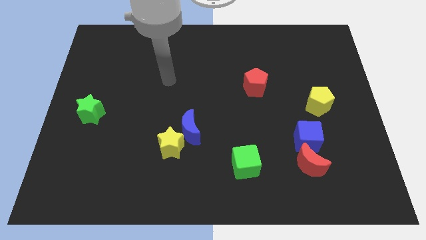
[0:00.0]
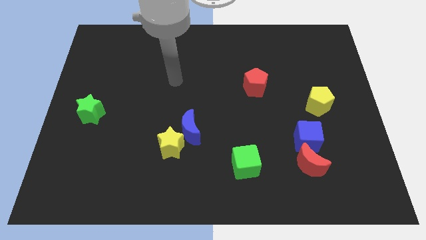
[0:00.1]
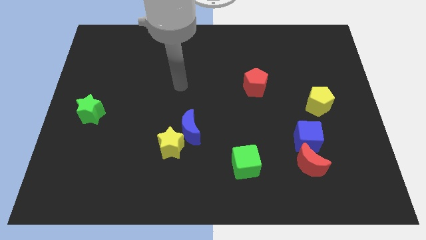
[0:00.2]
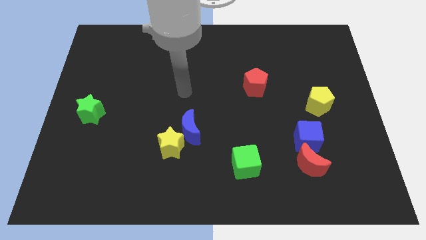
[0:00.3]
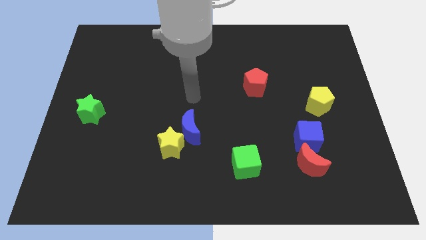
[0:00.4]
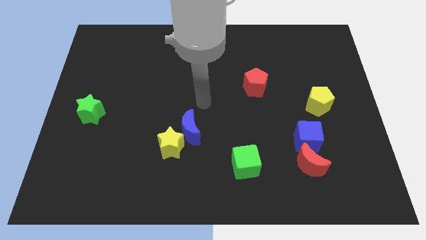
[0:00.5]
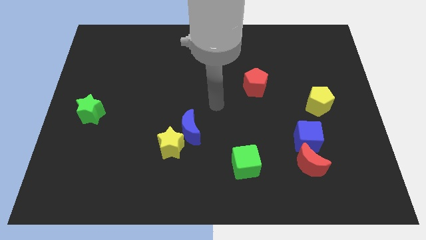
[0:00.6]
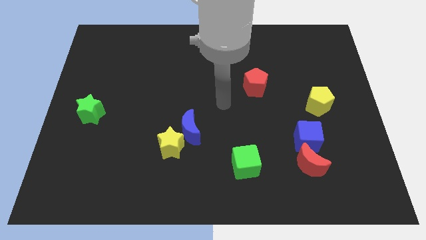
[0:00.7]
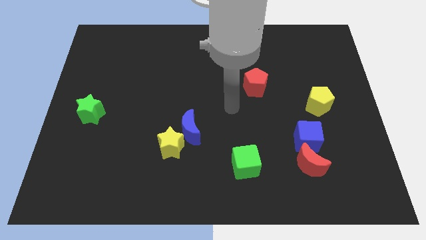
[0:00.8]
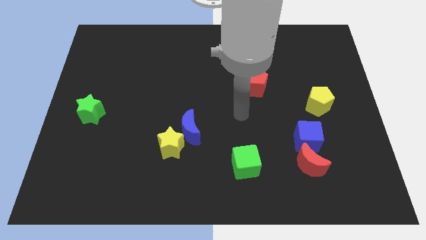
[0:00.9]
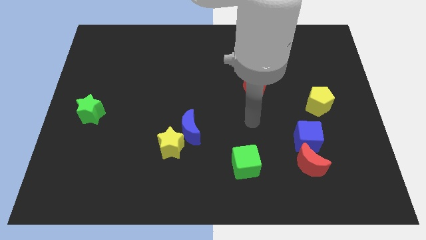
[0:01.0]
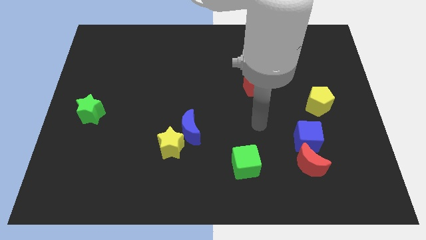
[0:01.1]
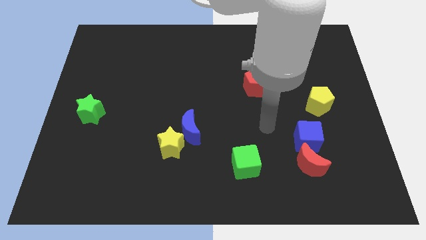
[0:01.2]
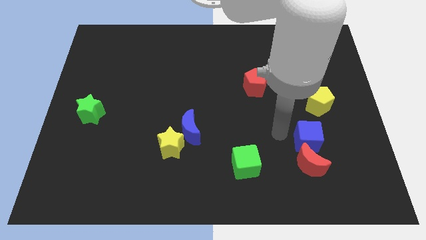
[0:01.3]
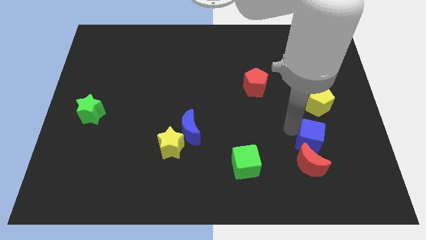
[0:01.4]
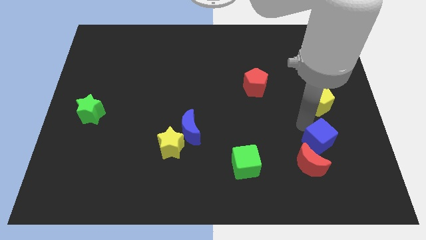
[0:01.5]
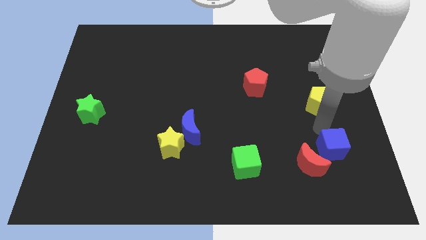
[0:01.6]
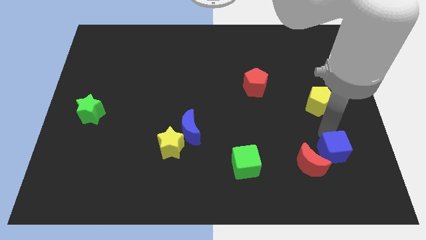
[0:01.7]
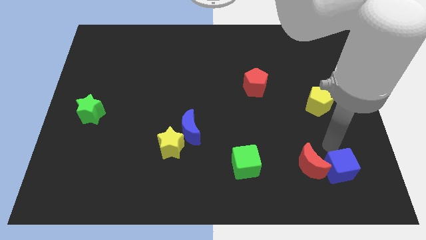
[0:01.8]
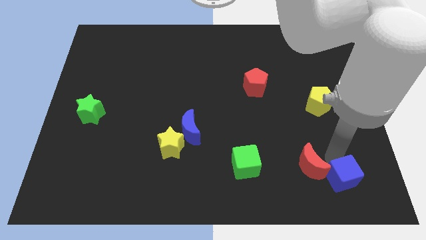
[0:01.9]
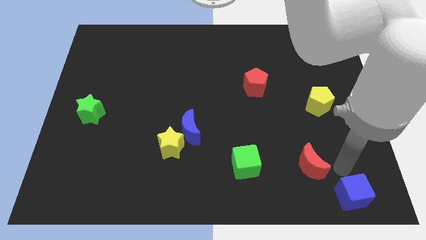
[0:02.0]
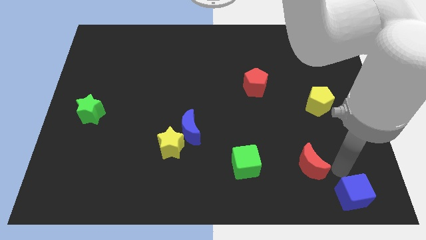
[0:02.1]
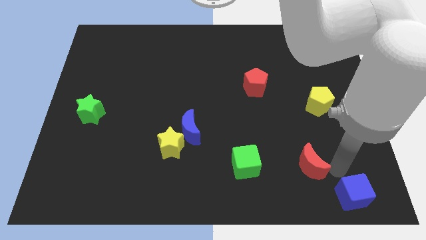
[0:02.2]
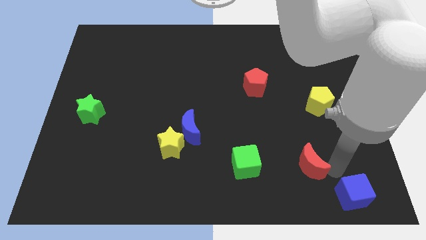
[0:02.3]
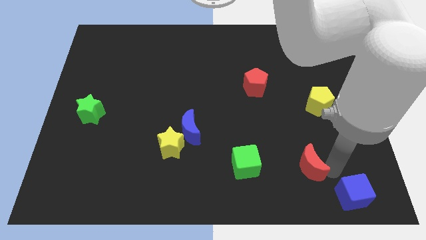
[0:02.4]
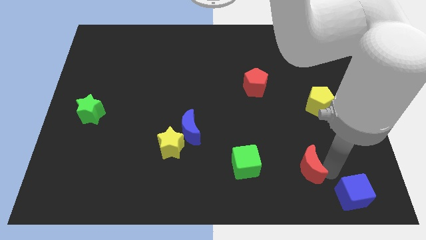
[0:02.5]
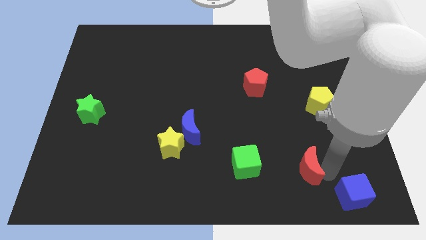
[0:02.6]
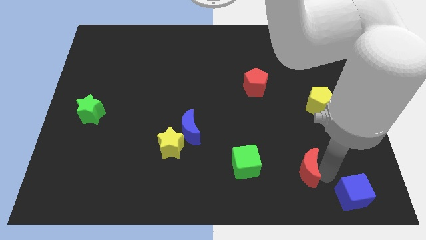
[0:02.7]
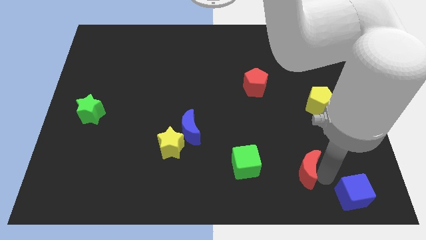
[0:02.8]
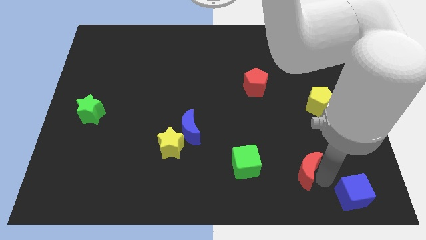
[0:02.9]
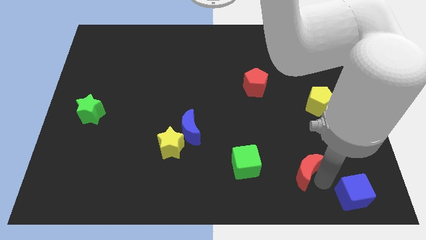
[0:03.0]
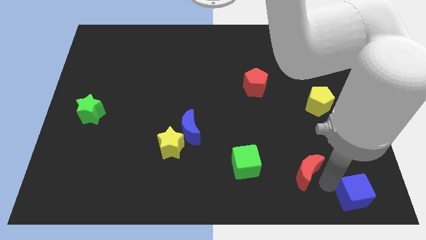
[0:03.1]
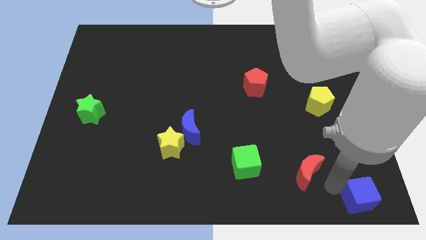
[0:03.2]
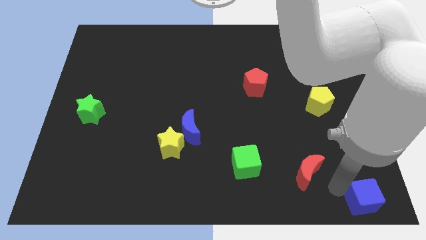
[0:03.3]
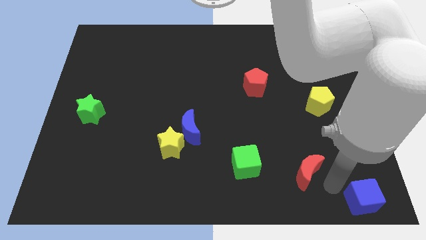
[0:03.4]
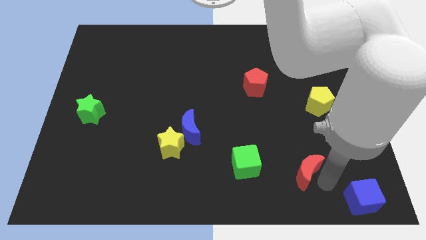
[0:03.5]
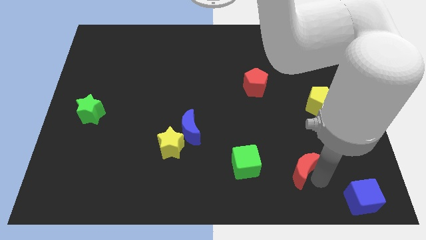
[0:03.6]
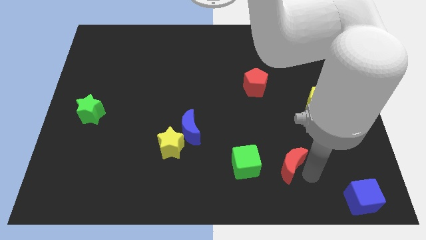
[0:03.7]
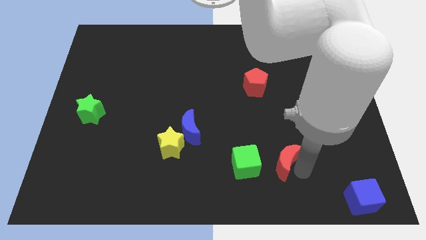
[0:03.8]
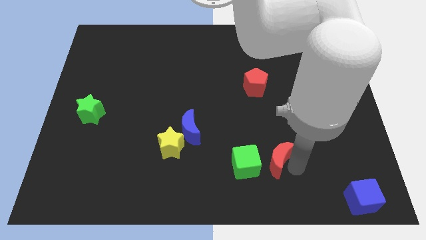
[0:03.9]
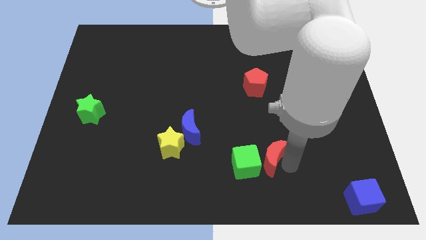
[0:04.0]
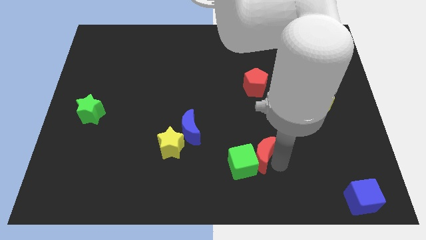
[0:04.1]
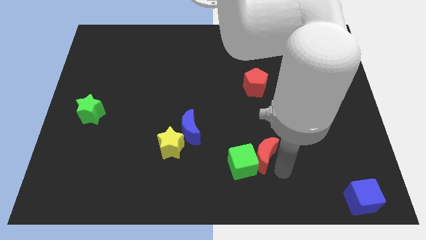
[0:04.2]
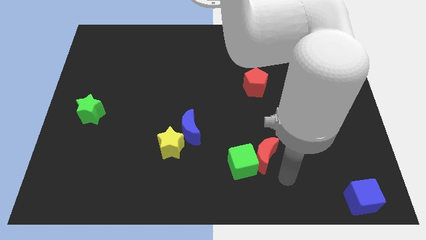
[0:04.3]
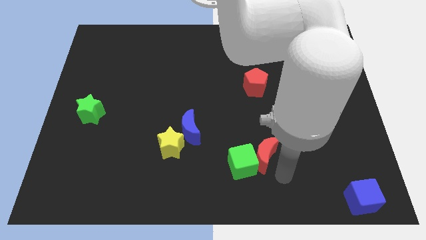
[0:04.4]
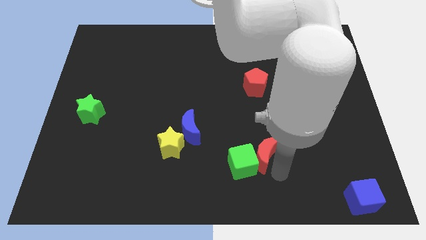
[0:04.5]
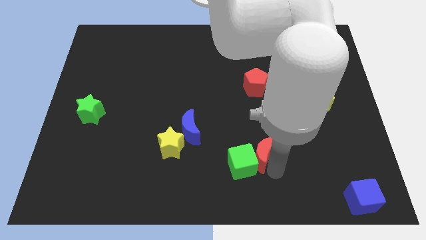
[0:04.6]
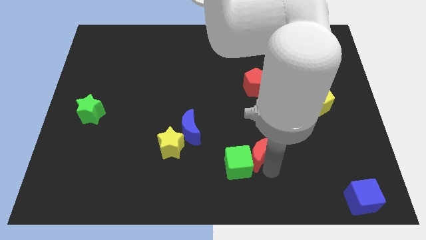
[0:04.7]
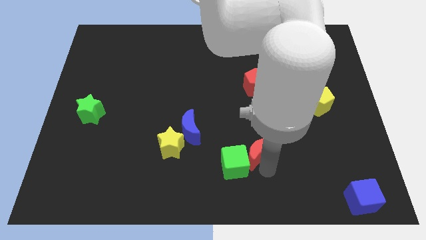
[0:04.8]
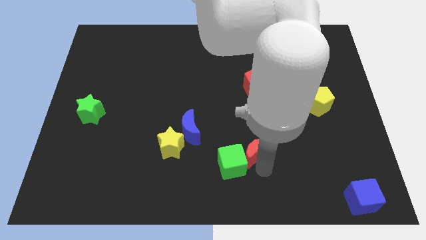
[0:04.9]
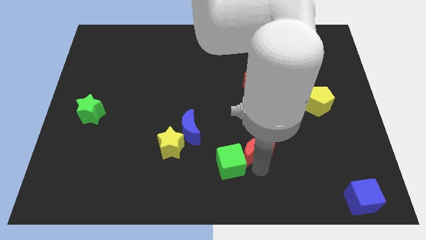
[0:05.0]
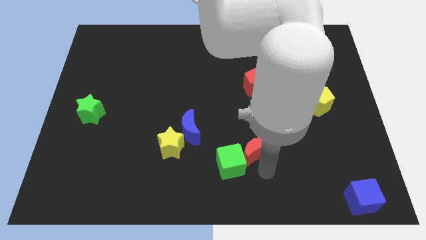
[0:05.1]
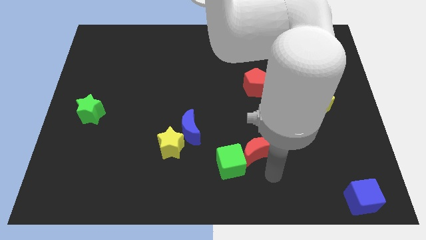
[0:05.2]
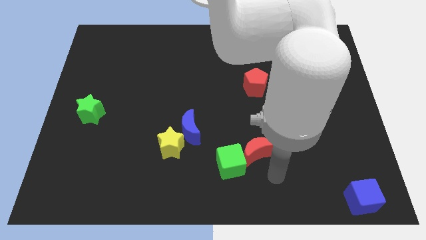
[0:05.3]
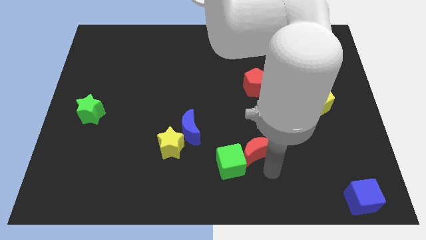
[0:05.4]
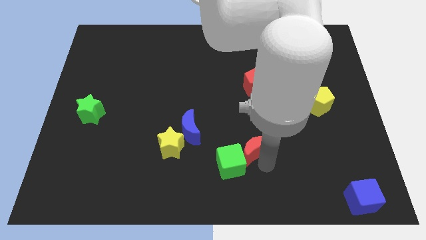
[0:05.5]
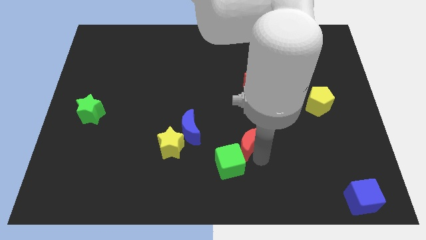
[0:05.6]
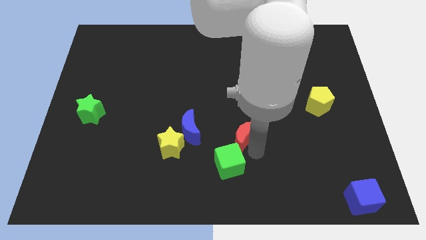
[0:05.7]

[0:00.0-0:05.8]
move the red moon to the middle of the board
